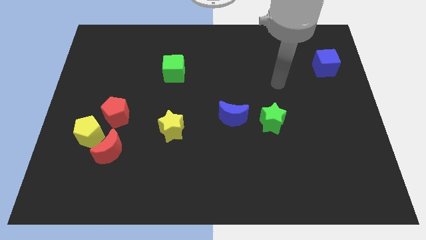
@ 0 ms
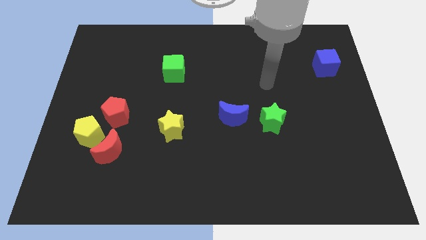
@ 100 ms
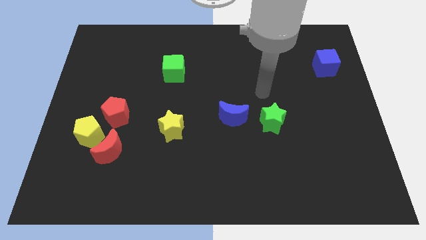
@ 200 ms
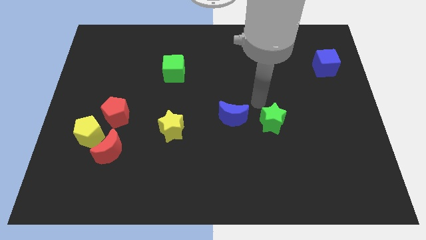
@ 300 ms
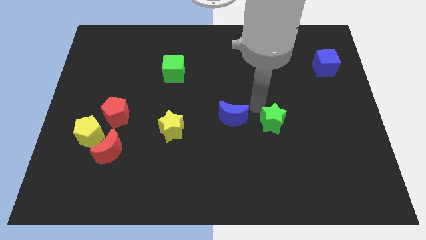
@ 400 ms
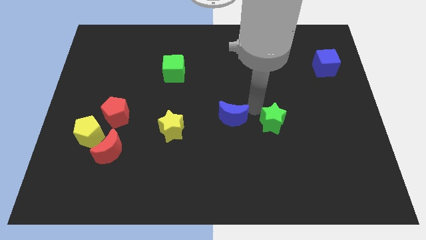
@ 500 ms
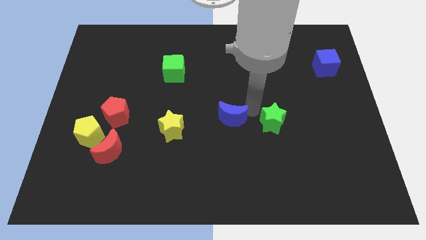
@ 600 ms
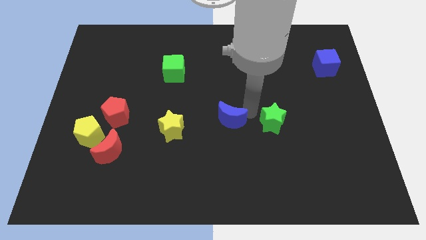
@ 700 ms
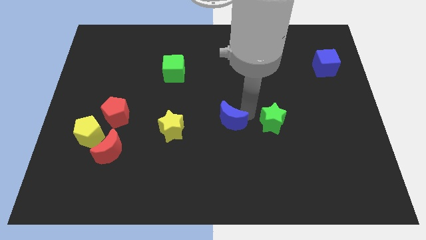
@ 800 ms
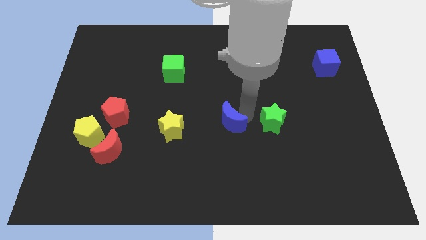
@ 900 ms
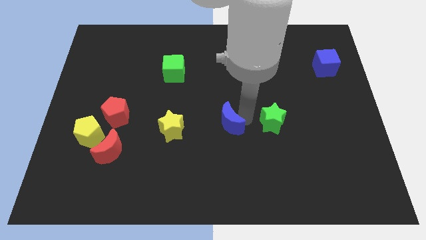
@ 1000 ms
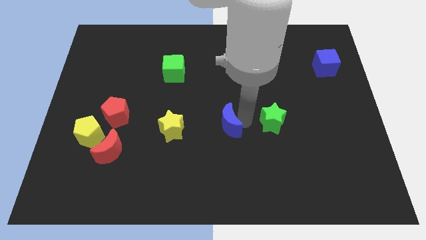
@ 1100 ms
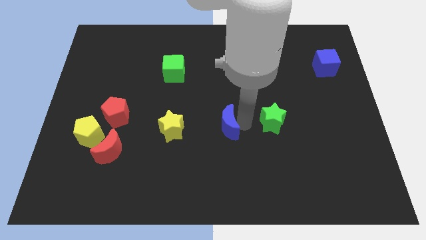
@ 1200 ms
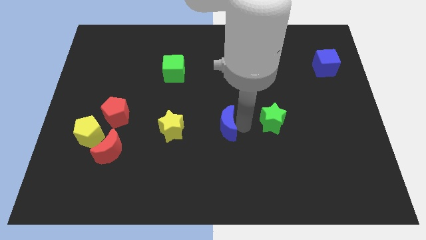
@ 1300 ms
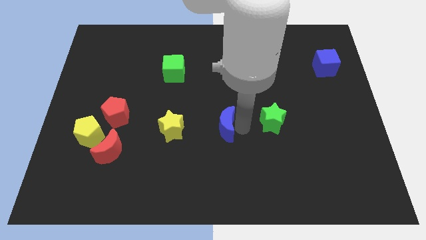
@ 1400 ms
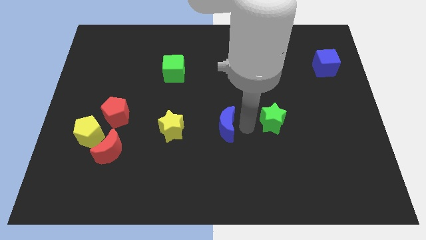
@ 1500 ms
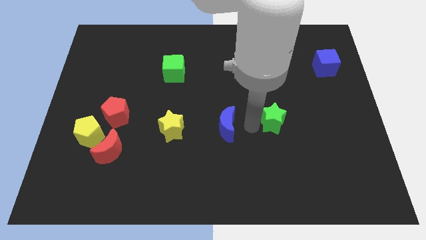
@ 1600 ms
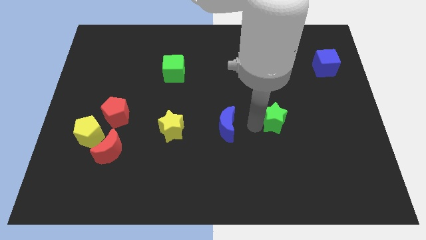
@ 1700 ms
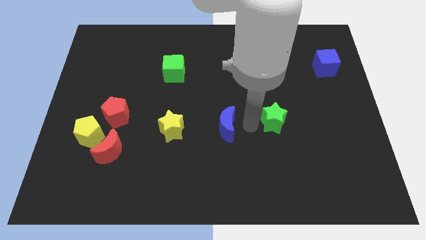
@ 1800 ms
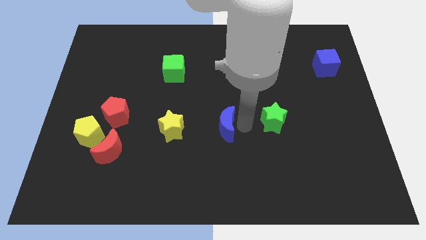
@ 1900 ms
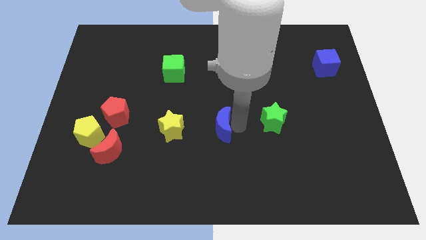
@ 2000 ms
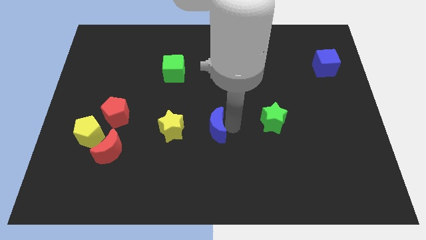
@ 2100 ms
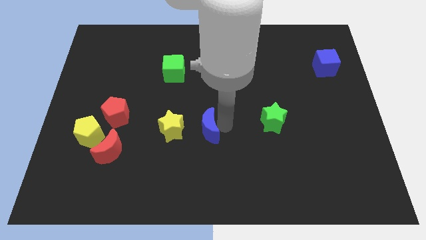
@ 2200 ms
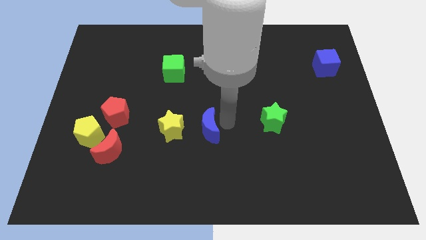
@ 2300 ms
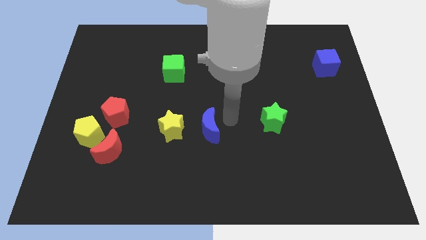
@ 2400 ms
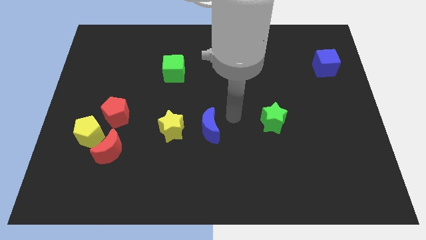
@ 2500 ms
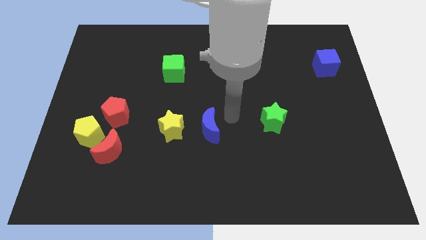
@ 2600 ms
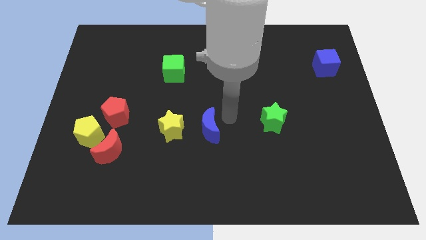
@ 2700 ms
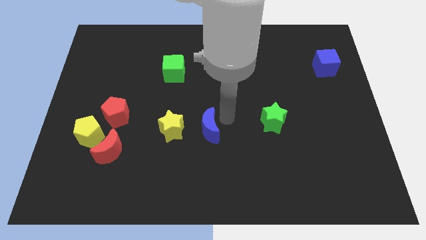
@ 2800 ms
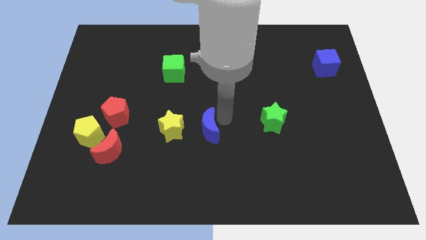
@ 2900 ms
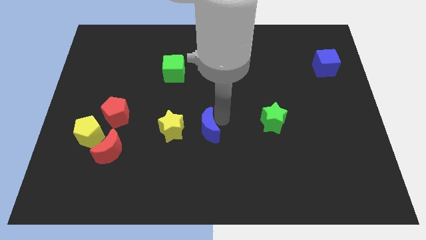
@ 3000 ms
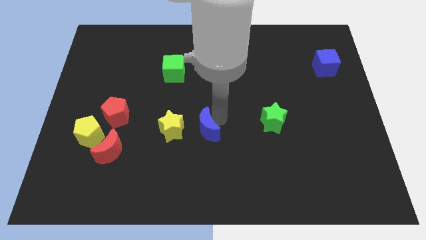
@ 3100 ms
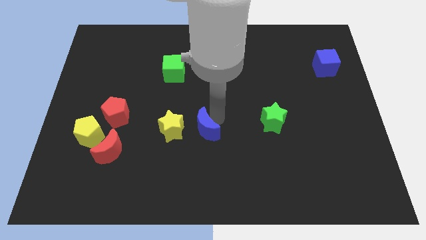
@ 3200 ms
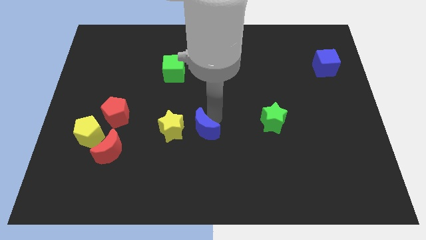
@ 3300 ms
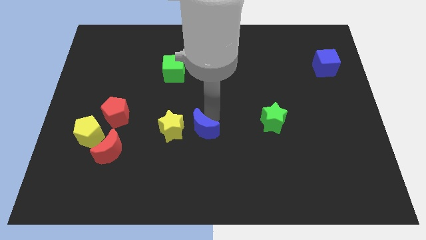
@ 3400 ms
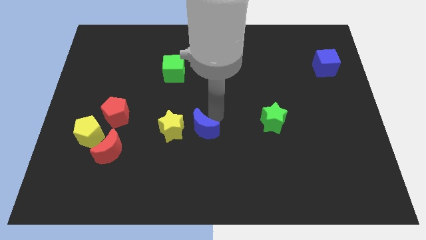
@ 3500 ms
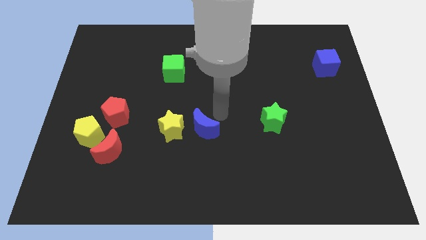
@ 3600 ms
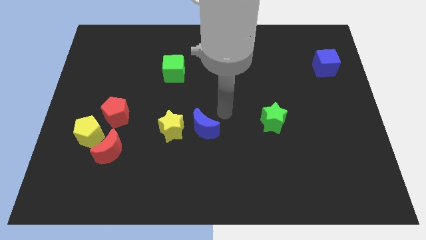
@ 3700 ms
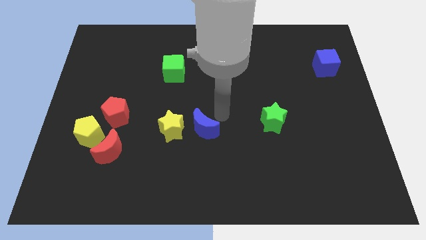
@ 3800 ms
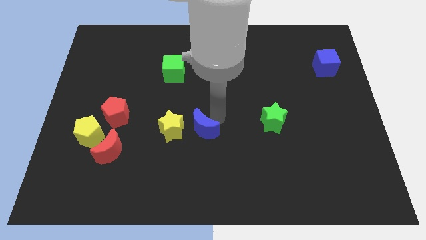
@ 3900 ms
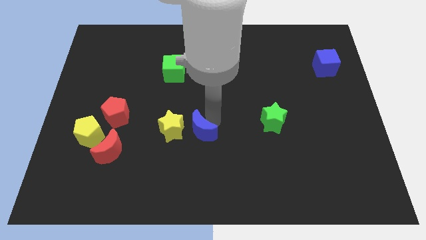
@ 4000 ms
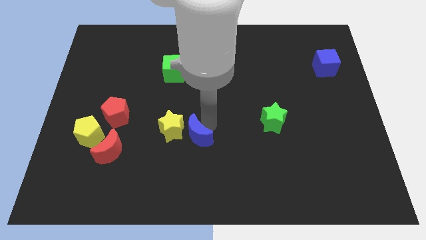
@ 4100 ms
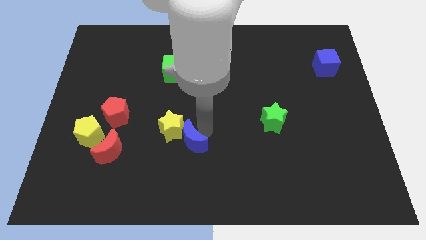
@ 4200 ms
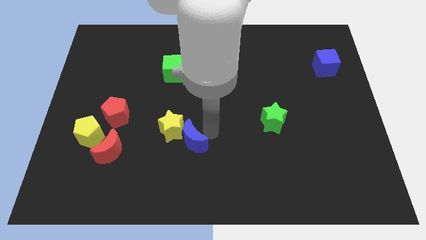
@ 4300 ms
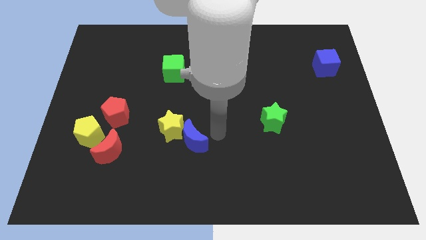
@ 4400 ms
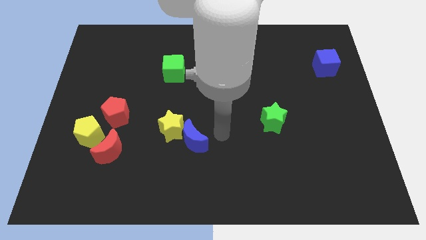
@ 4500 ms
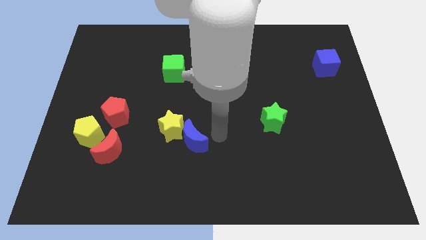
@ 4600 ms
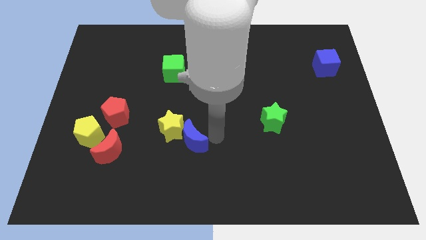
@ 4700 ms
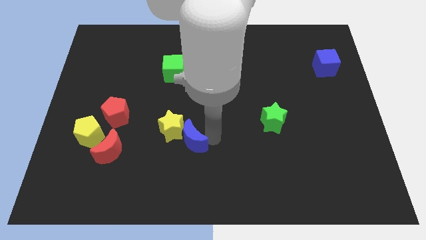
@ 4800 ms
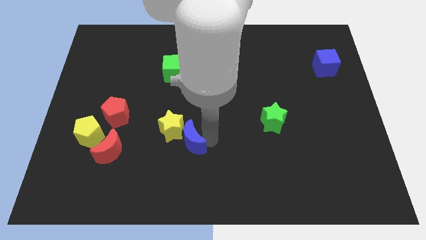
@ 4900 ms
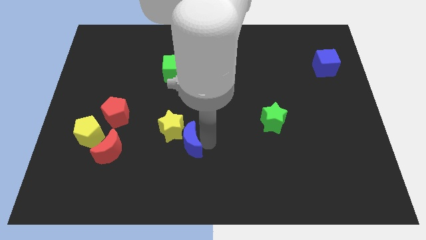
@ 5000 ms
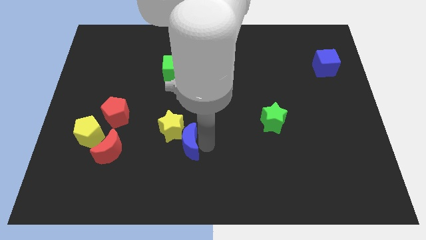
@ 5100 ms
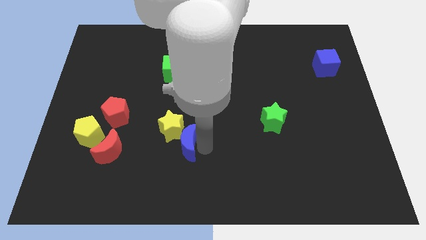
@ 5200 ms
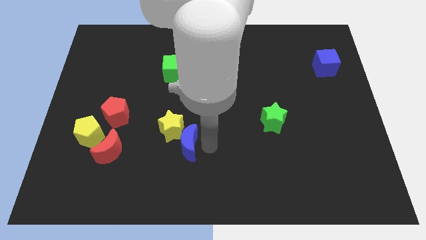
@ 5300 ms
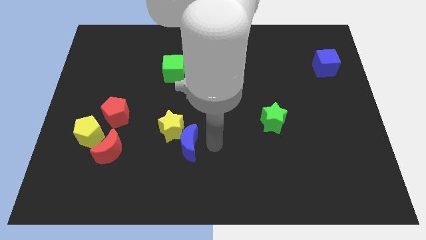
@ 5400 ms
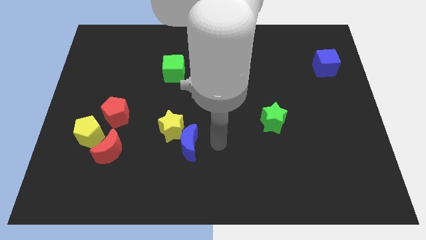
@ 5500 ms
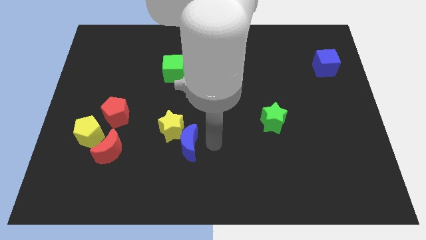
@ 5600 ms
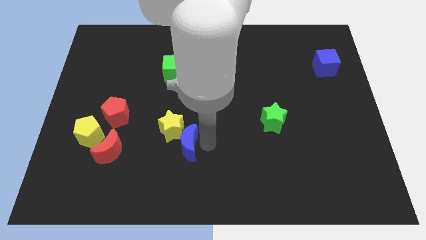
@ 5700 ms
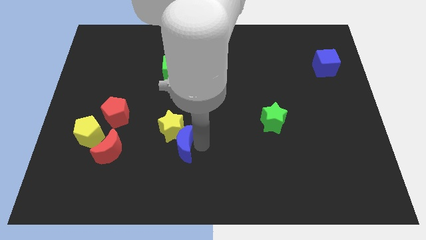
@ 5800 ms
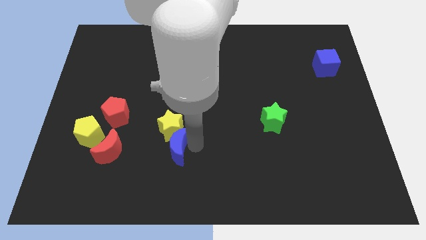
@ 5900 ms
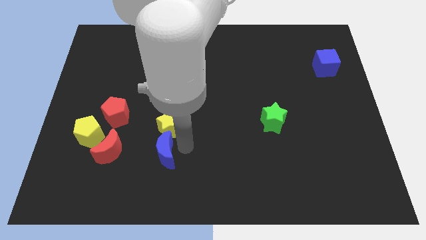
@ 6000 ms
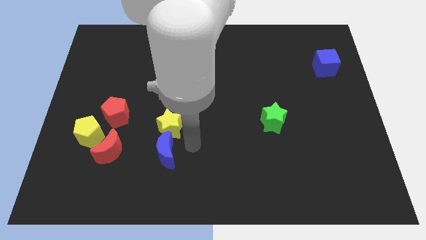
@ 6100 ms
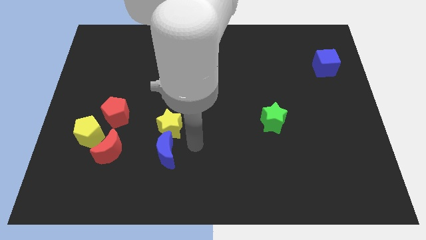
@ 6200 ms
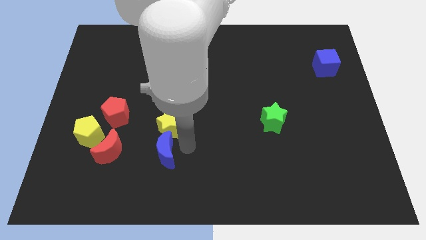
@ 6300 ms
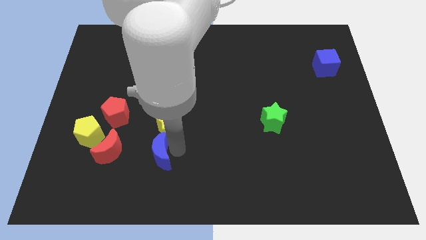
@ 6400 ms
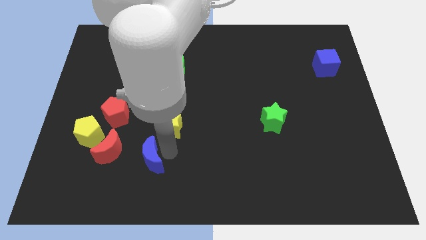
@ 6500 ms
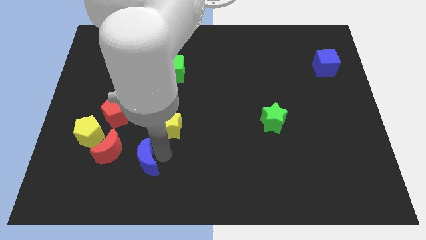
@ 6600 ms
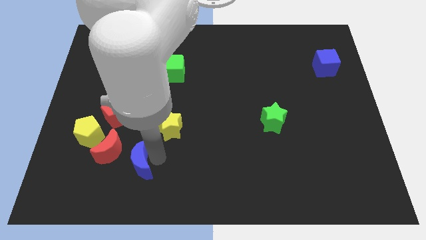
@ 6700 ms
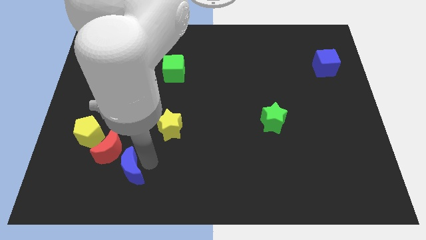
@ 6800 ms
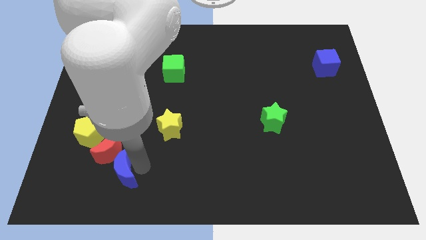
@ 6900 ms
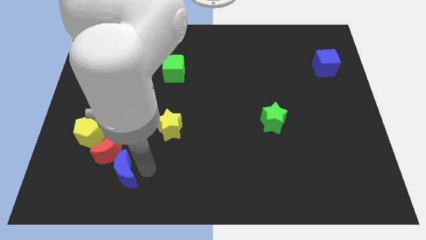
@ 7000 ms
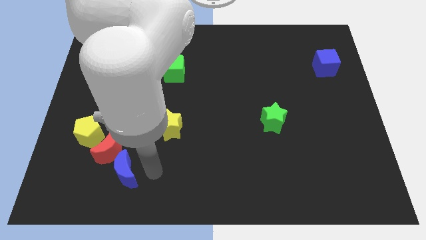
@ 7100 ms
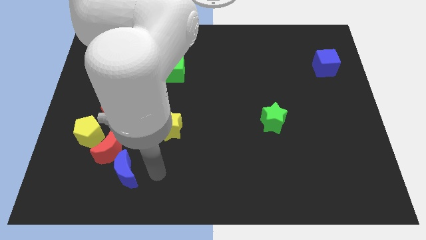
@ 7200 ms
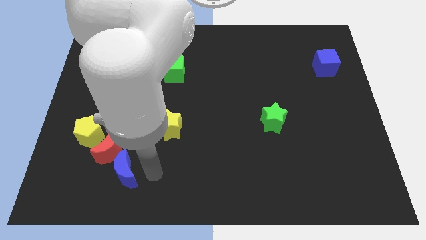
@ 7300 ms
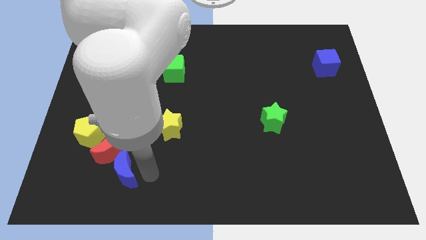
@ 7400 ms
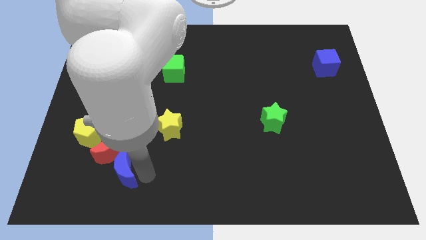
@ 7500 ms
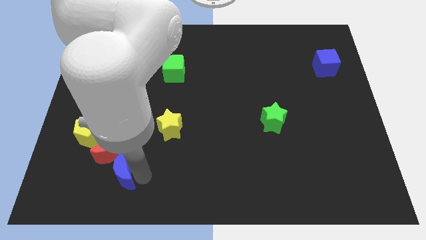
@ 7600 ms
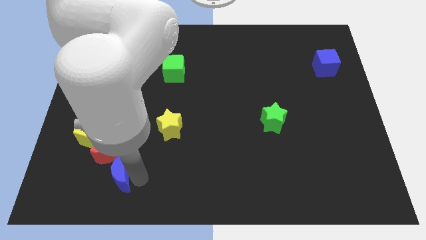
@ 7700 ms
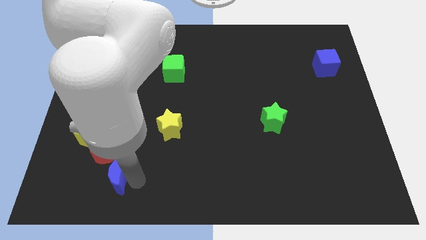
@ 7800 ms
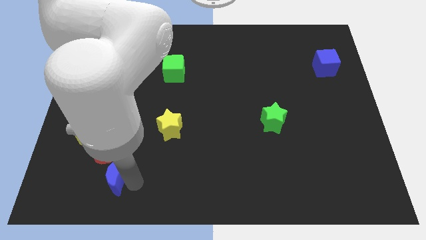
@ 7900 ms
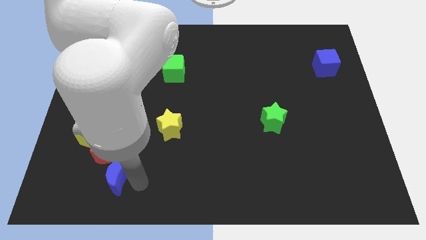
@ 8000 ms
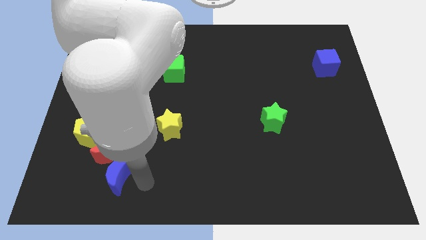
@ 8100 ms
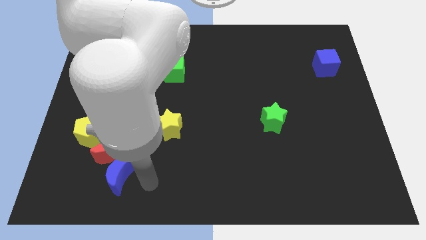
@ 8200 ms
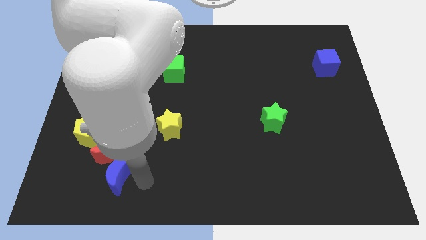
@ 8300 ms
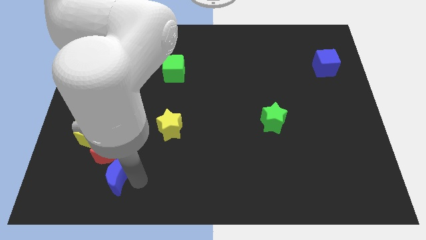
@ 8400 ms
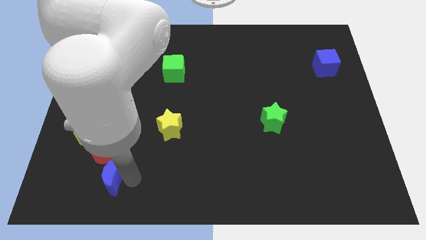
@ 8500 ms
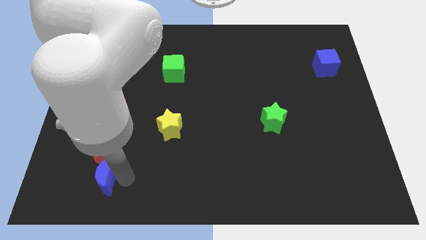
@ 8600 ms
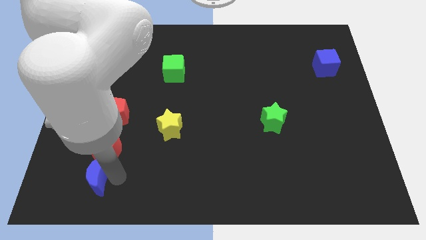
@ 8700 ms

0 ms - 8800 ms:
push the blue moon below the yellow pentagon
